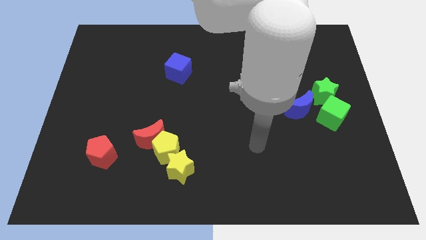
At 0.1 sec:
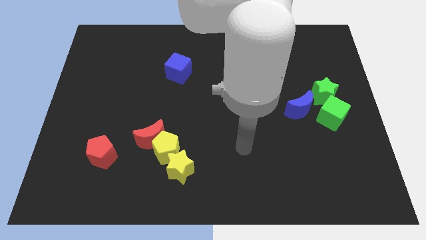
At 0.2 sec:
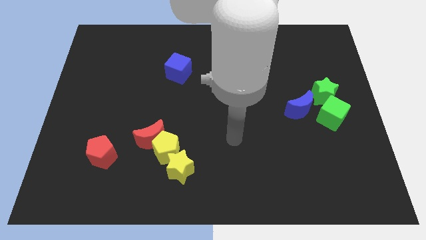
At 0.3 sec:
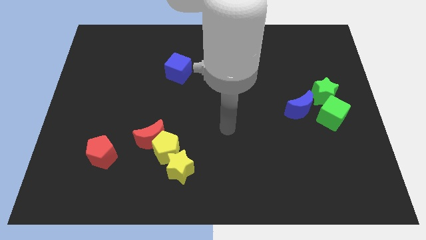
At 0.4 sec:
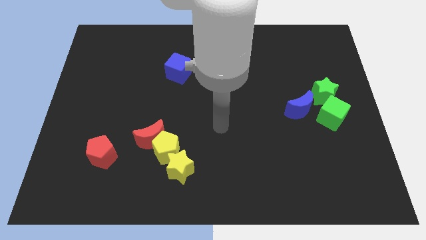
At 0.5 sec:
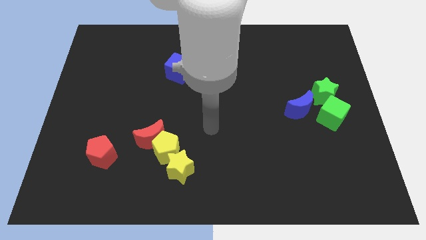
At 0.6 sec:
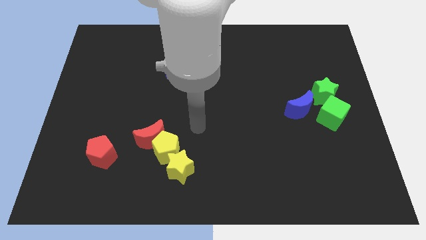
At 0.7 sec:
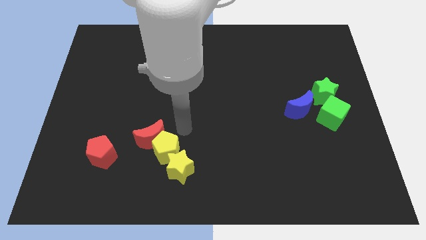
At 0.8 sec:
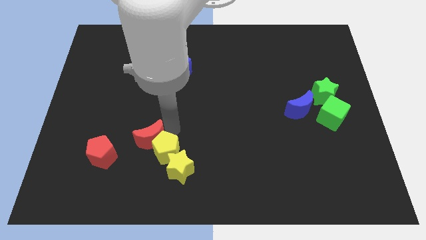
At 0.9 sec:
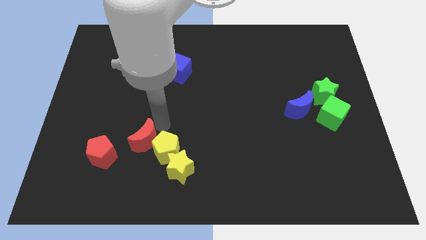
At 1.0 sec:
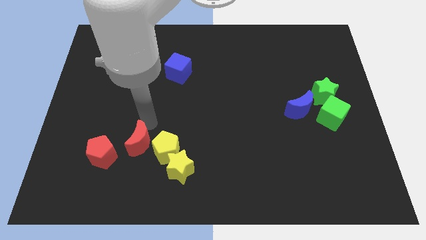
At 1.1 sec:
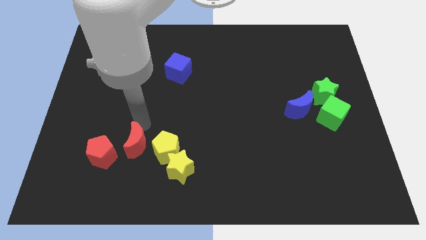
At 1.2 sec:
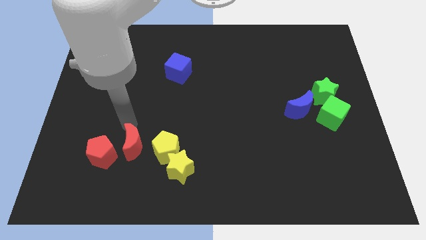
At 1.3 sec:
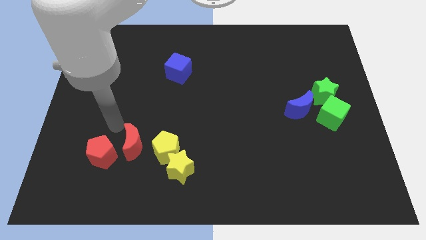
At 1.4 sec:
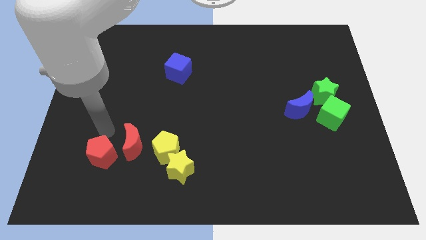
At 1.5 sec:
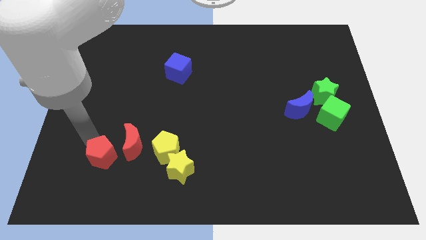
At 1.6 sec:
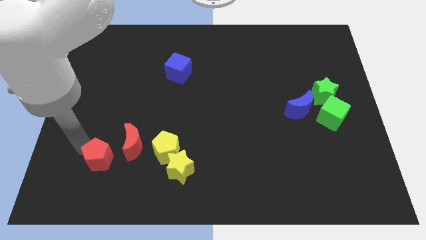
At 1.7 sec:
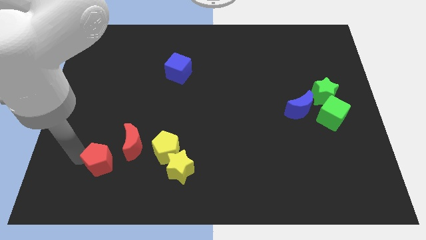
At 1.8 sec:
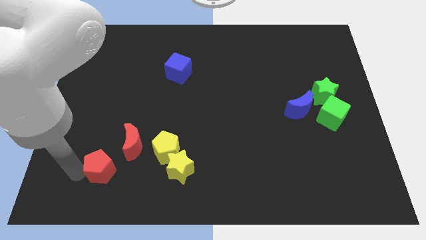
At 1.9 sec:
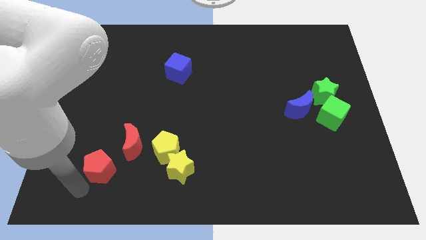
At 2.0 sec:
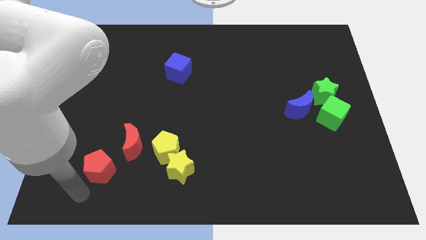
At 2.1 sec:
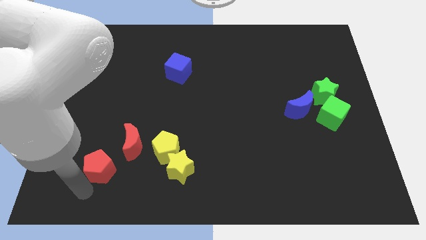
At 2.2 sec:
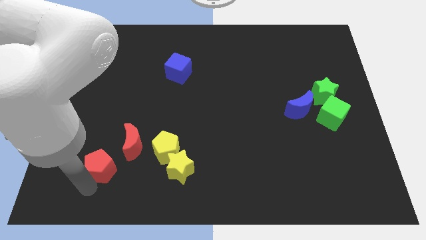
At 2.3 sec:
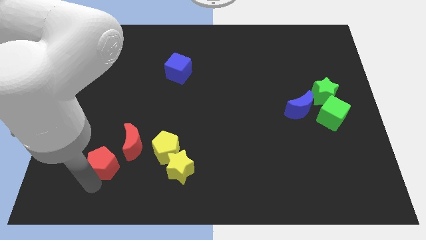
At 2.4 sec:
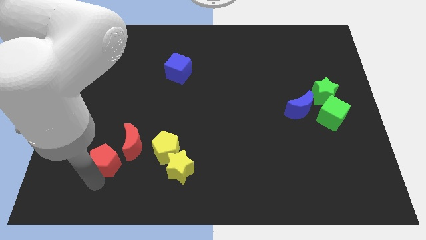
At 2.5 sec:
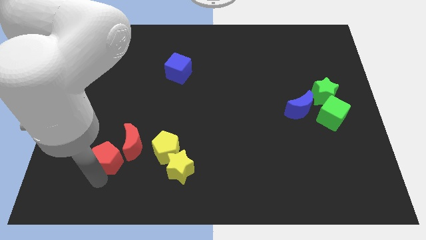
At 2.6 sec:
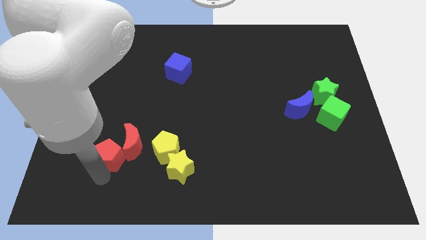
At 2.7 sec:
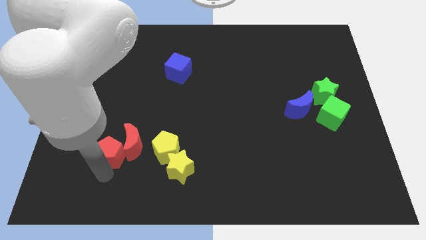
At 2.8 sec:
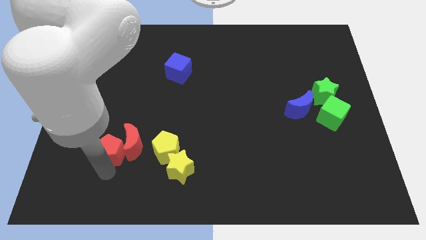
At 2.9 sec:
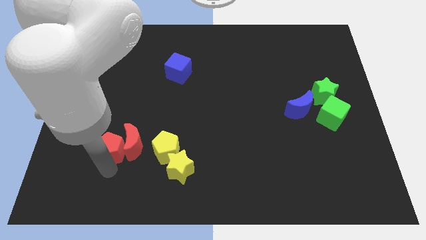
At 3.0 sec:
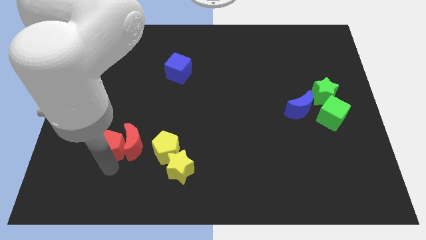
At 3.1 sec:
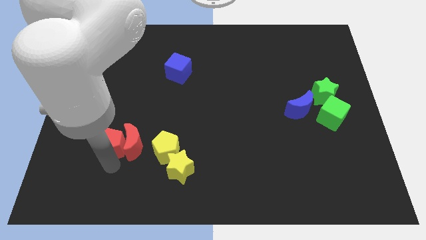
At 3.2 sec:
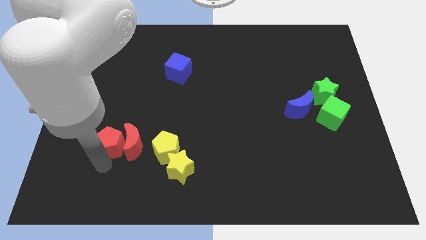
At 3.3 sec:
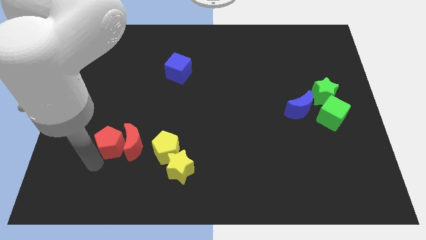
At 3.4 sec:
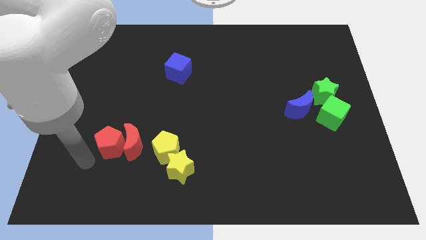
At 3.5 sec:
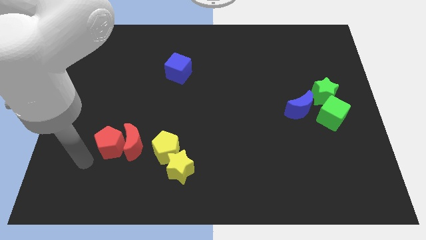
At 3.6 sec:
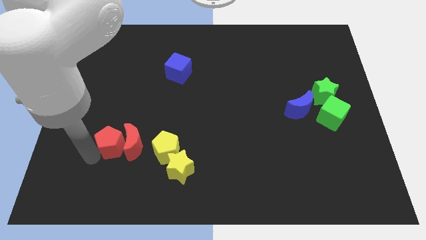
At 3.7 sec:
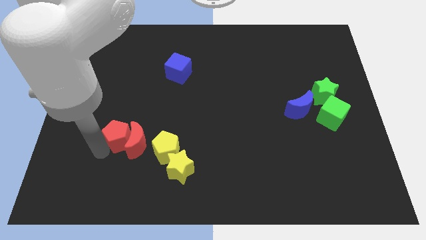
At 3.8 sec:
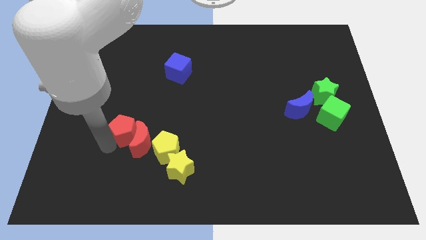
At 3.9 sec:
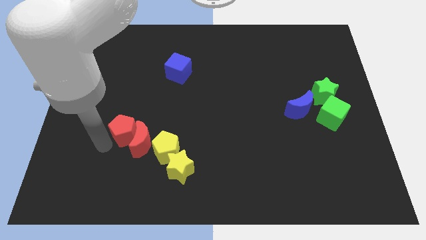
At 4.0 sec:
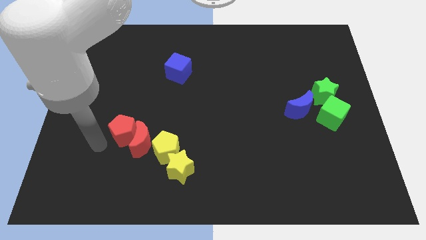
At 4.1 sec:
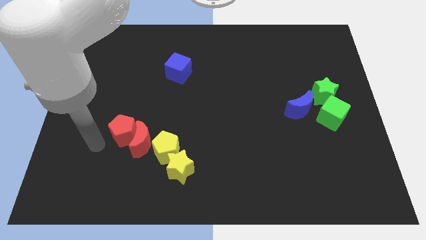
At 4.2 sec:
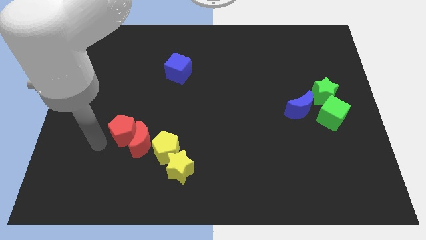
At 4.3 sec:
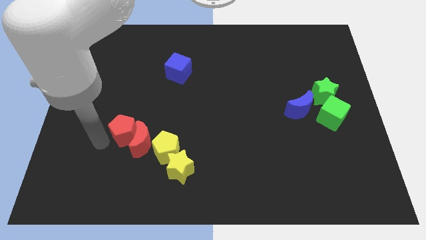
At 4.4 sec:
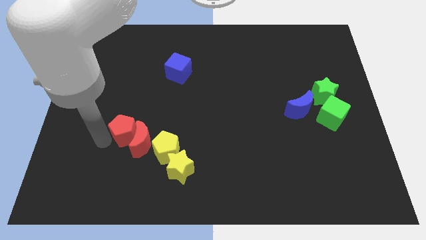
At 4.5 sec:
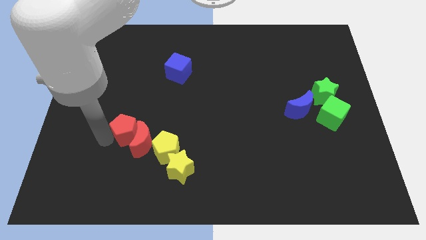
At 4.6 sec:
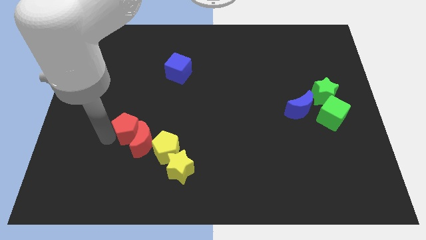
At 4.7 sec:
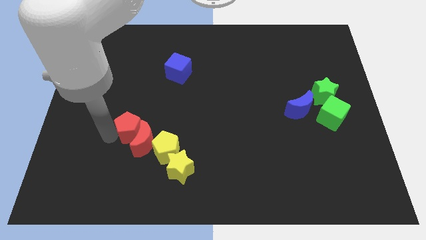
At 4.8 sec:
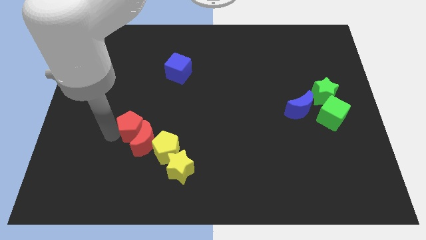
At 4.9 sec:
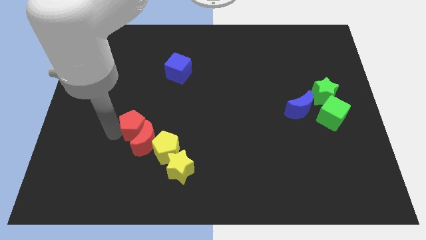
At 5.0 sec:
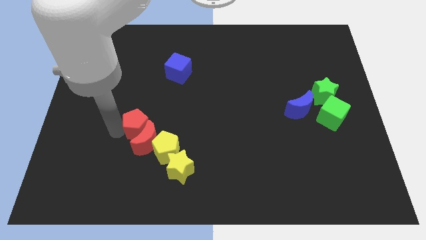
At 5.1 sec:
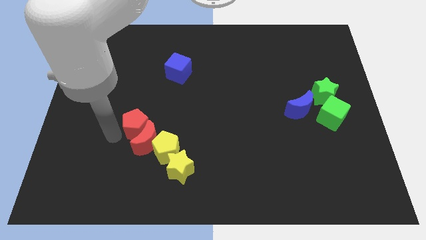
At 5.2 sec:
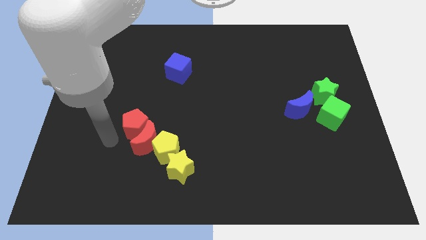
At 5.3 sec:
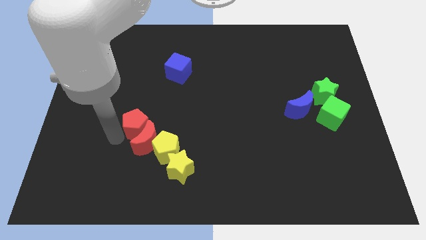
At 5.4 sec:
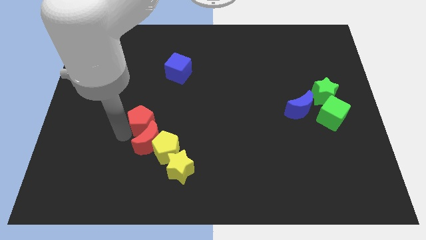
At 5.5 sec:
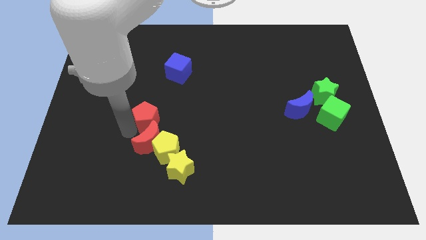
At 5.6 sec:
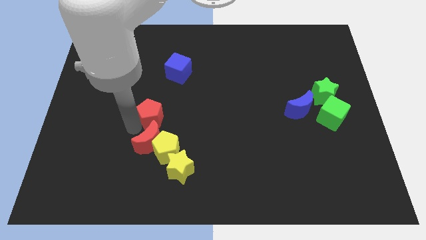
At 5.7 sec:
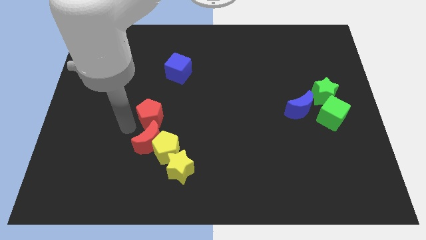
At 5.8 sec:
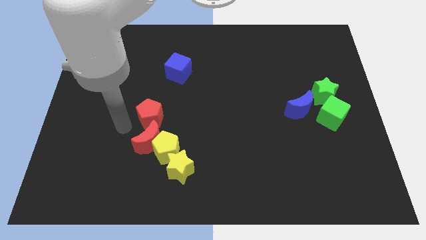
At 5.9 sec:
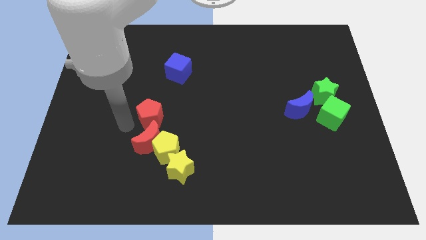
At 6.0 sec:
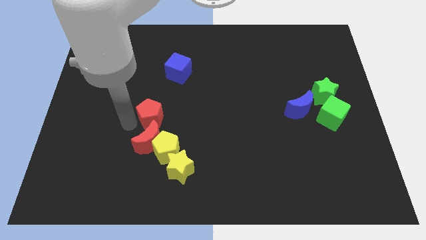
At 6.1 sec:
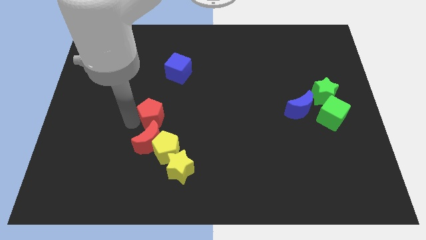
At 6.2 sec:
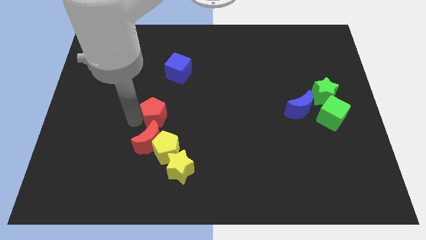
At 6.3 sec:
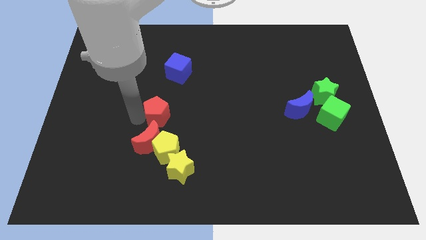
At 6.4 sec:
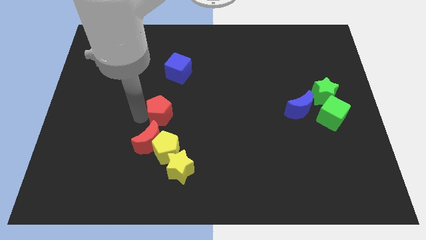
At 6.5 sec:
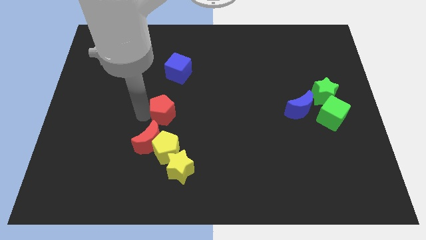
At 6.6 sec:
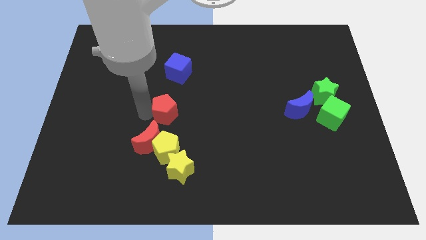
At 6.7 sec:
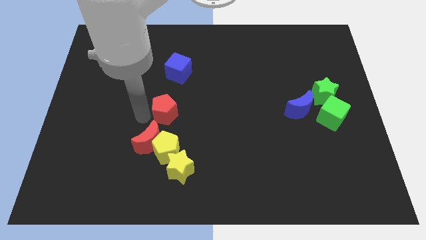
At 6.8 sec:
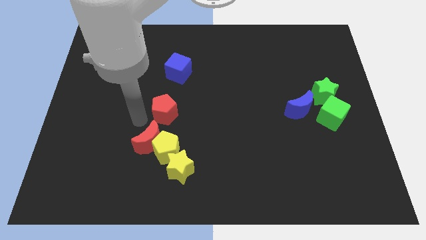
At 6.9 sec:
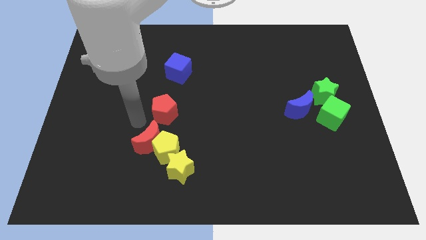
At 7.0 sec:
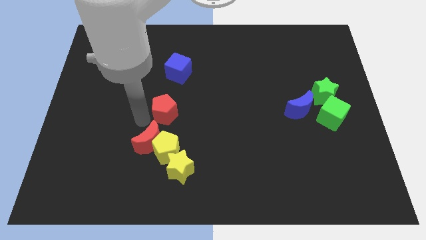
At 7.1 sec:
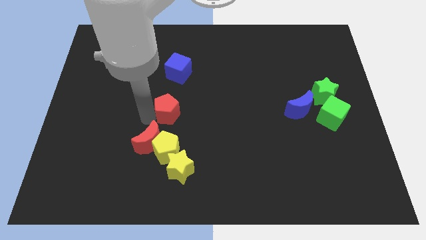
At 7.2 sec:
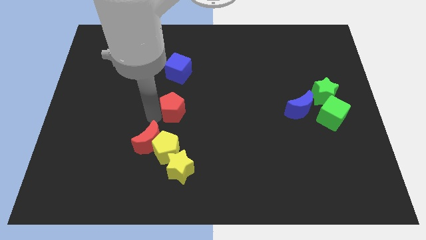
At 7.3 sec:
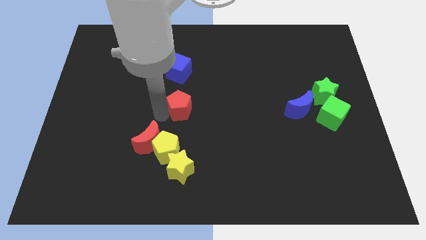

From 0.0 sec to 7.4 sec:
push the red pentagon up and right diagonally

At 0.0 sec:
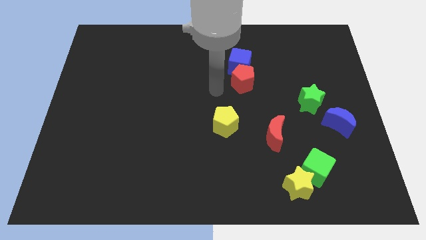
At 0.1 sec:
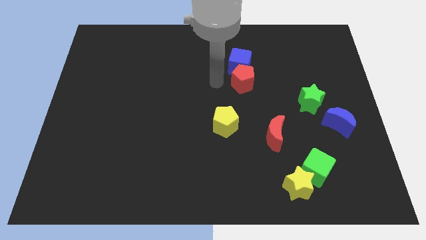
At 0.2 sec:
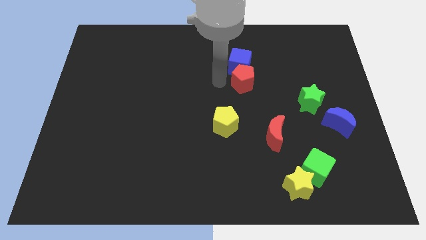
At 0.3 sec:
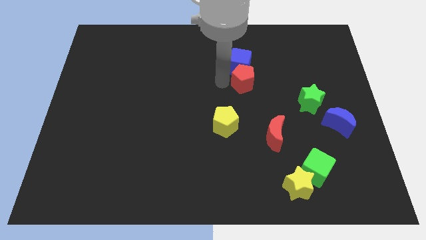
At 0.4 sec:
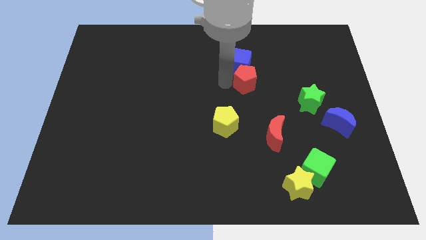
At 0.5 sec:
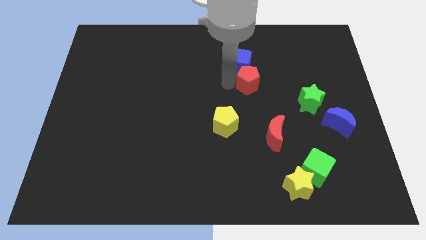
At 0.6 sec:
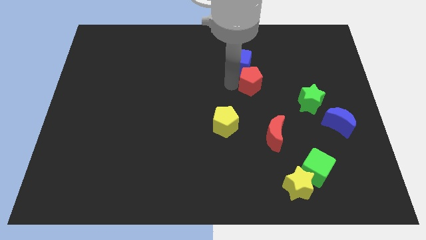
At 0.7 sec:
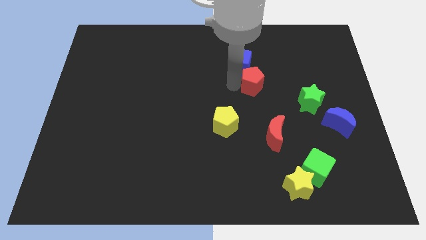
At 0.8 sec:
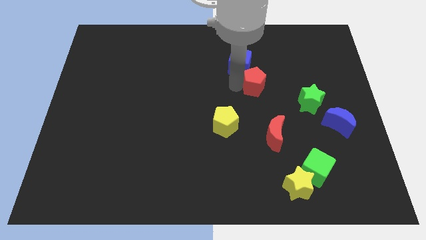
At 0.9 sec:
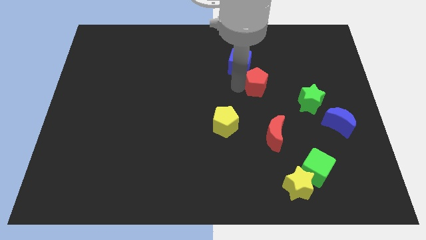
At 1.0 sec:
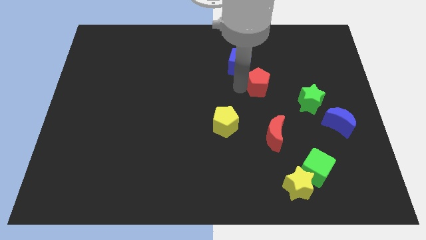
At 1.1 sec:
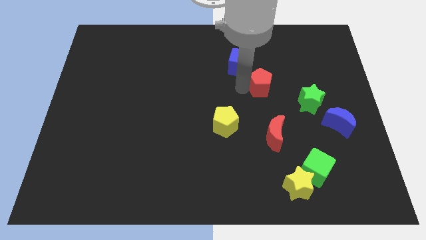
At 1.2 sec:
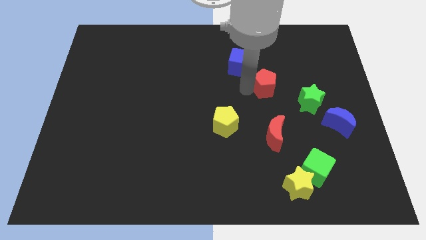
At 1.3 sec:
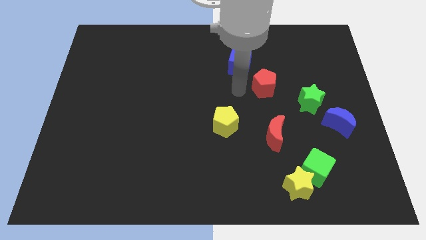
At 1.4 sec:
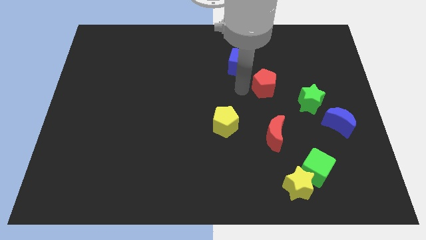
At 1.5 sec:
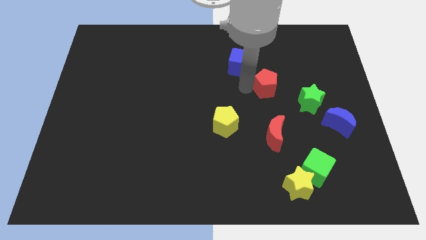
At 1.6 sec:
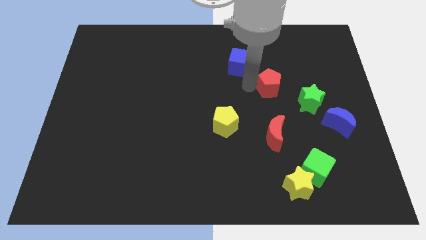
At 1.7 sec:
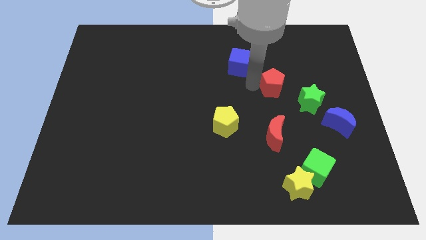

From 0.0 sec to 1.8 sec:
slide the red pentagon right a little
